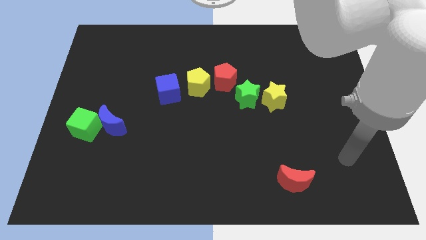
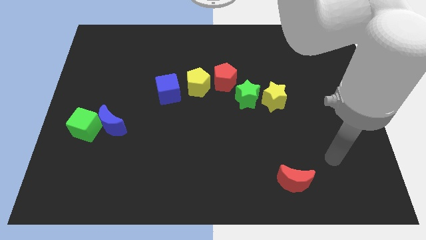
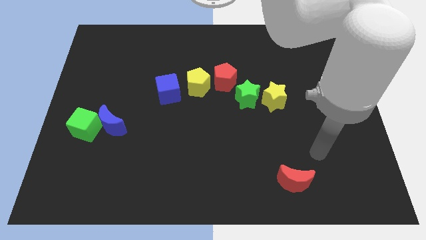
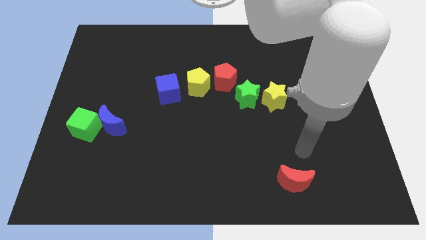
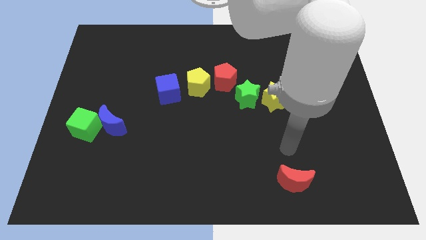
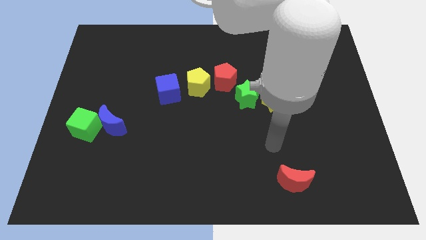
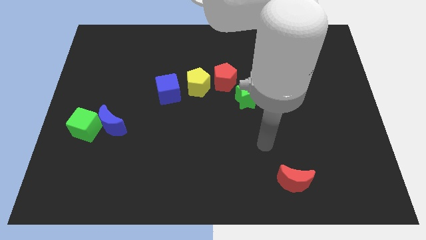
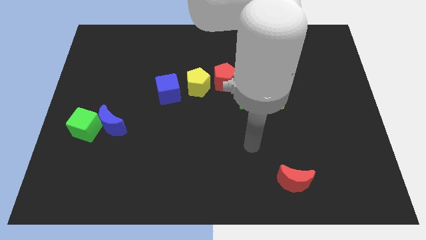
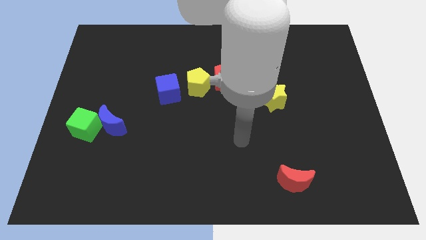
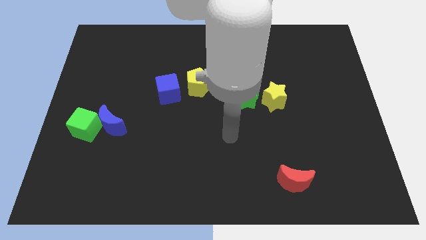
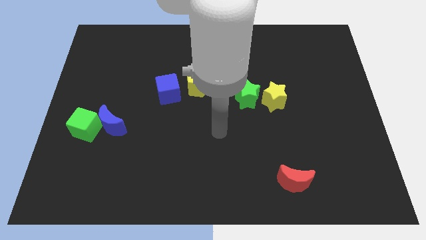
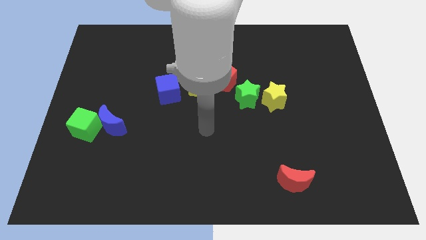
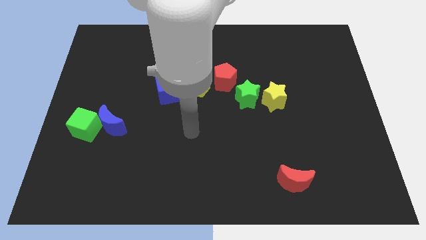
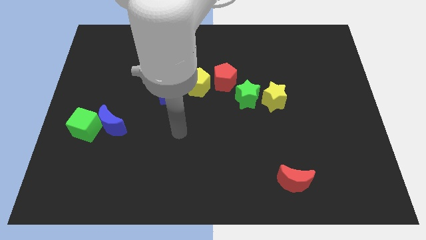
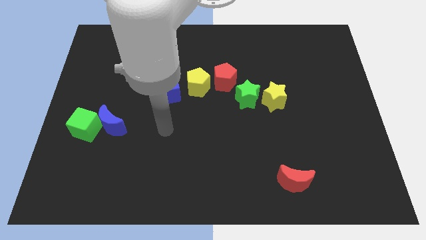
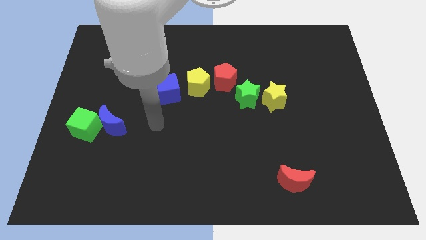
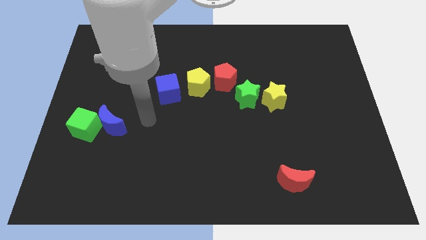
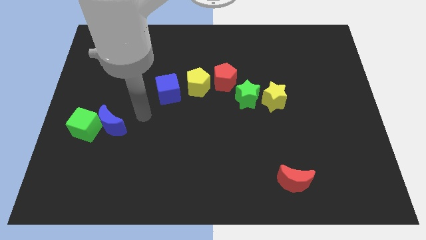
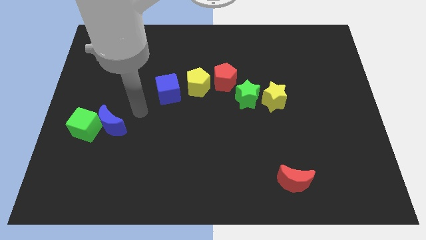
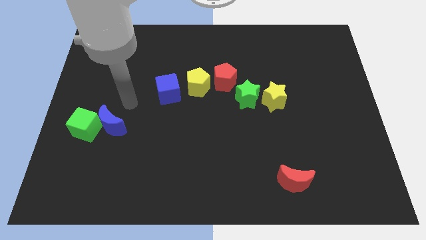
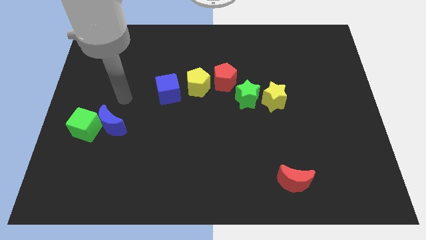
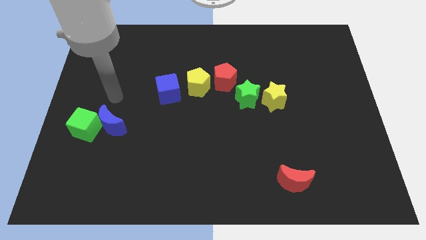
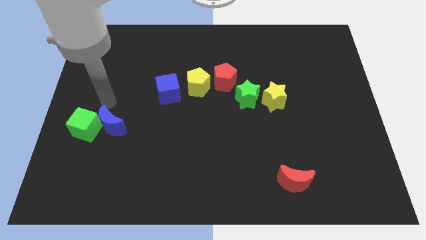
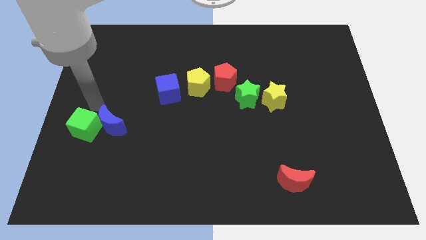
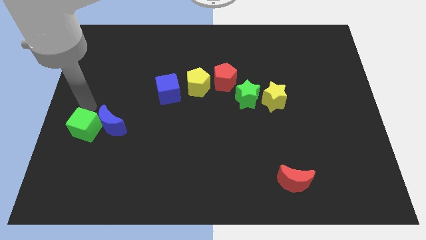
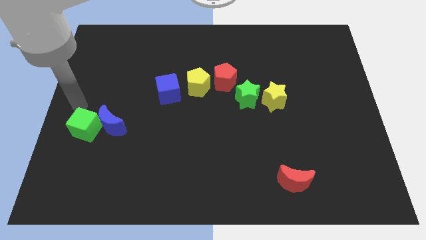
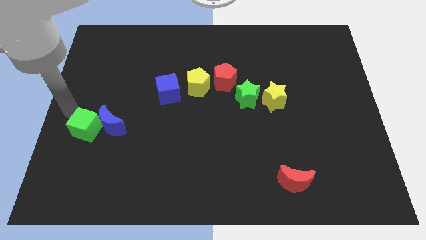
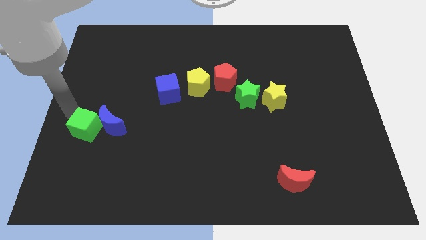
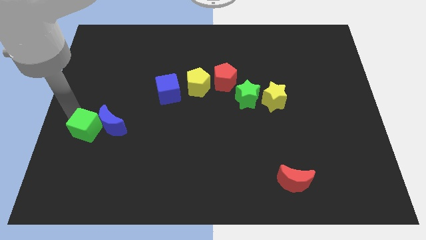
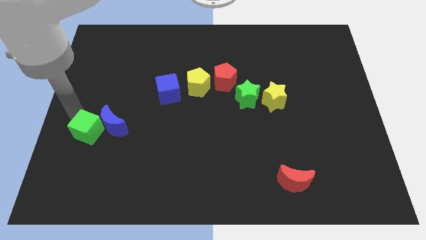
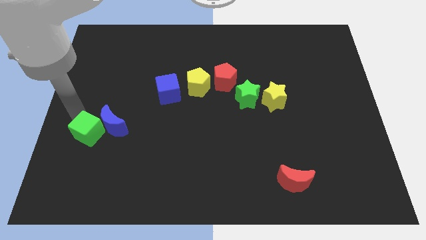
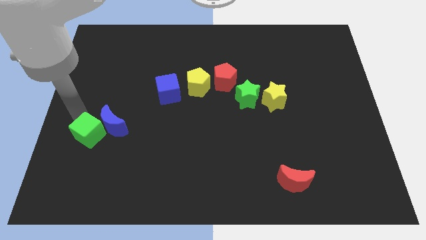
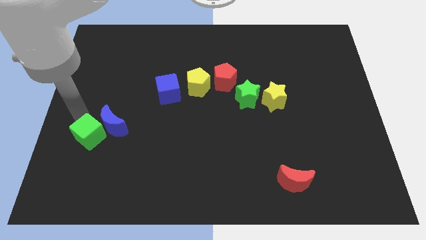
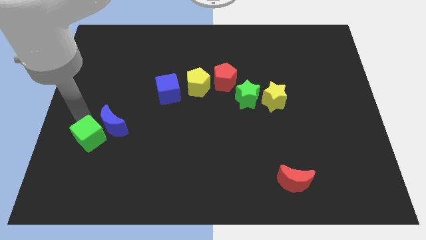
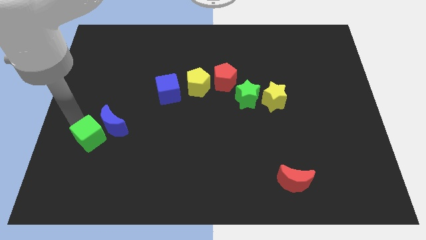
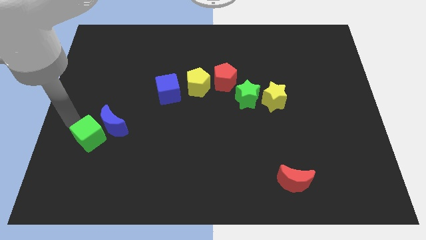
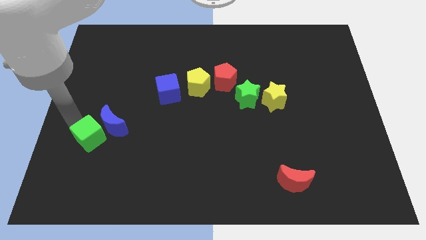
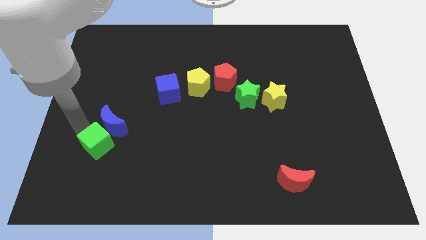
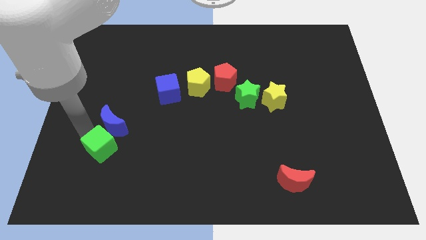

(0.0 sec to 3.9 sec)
slightly slide the green cube down and to the right

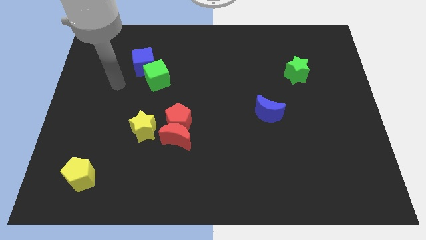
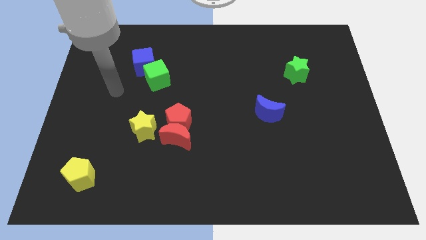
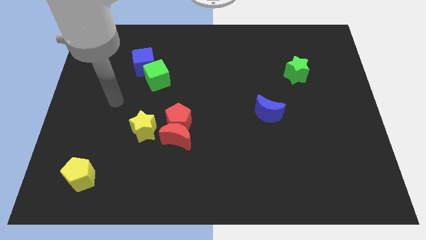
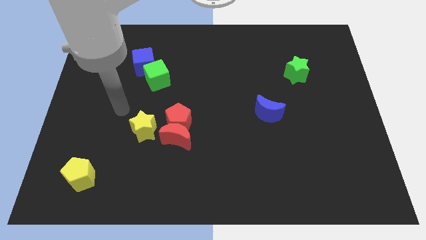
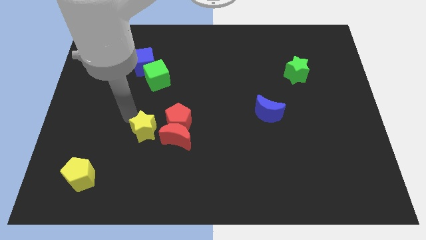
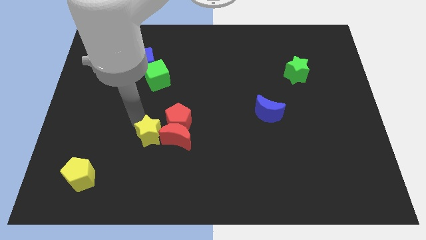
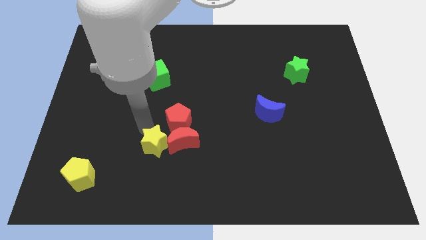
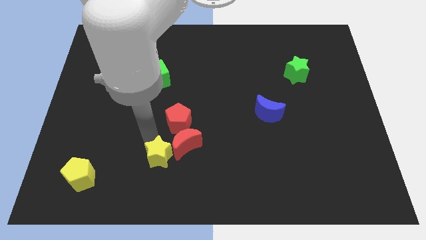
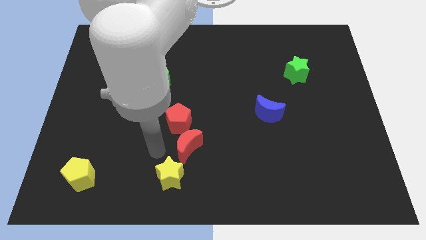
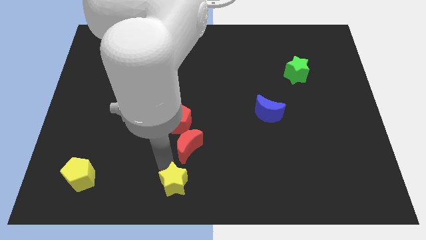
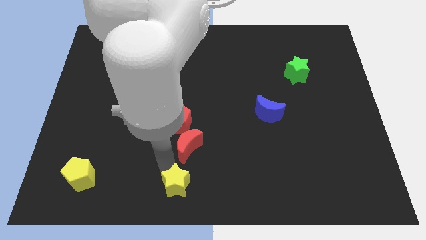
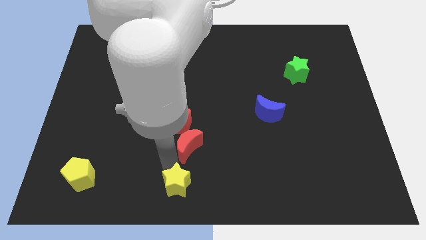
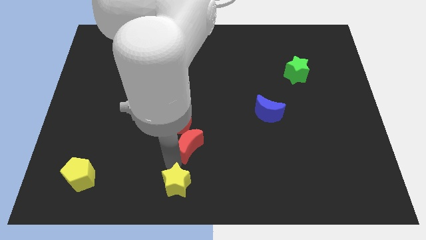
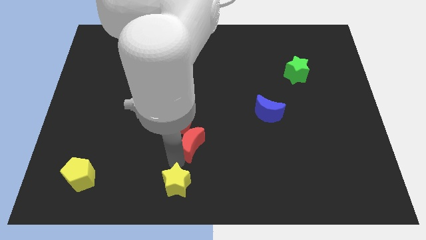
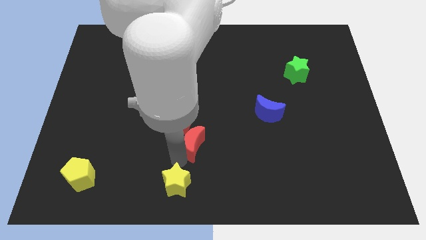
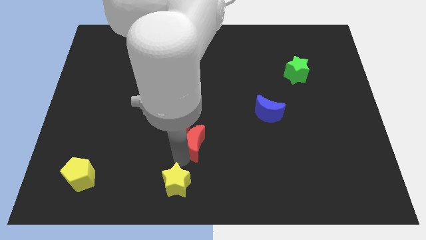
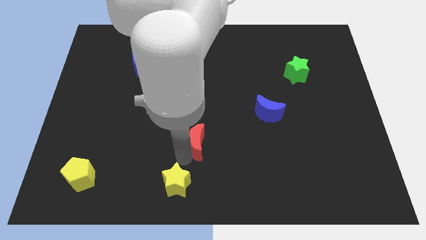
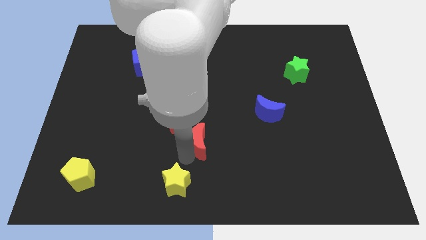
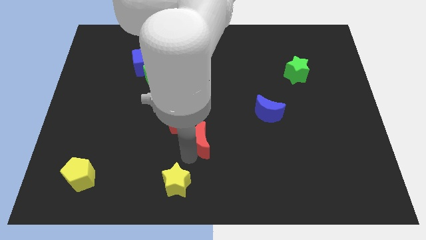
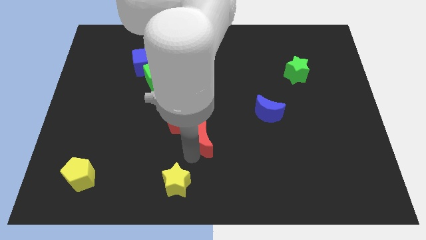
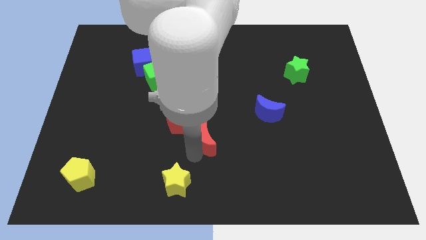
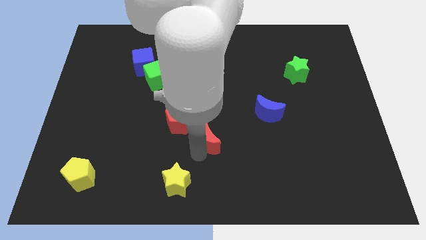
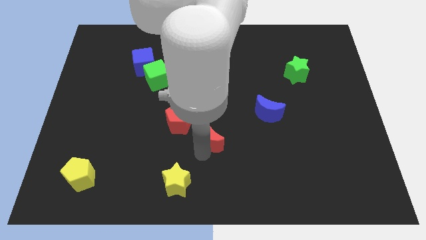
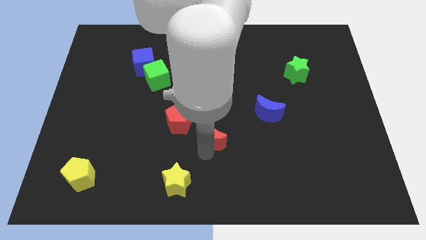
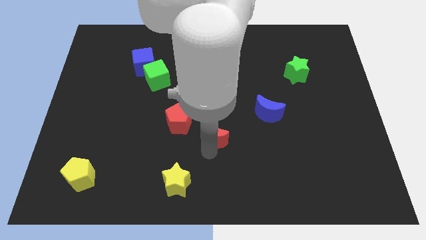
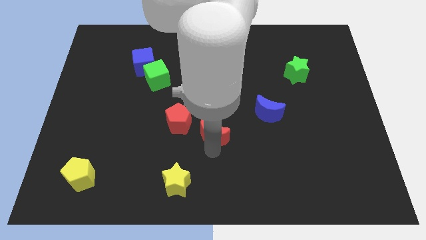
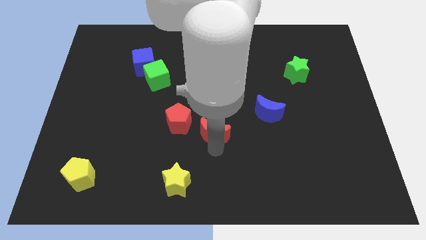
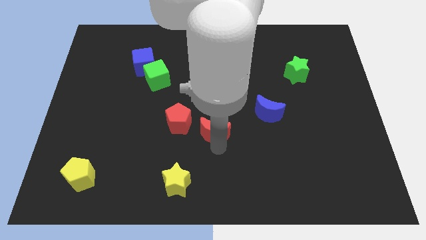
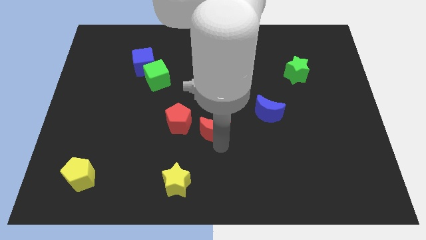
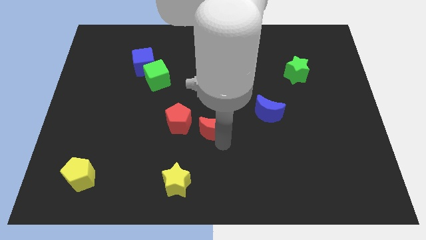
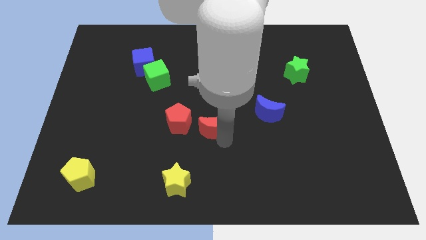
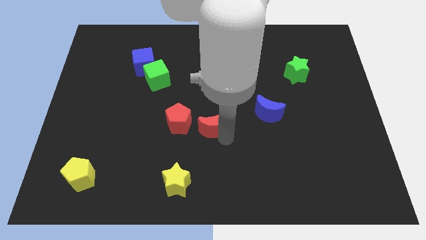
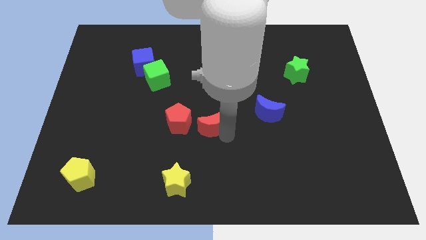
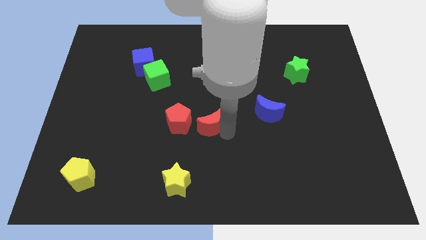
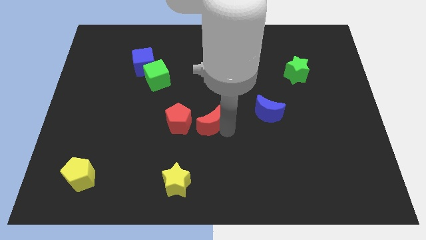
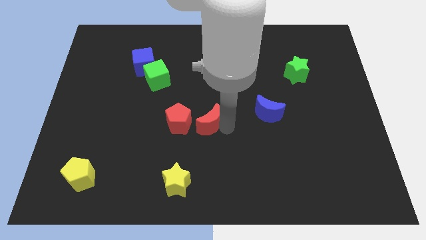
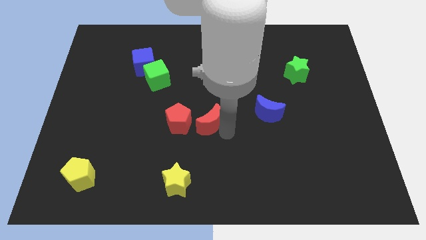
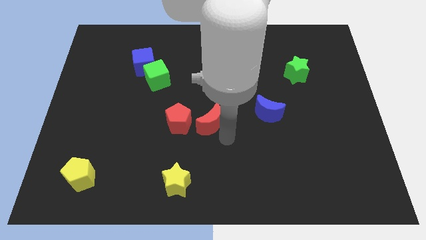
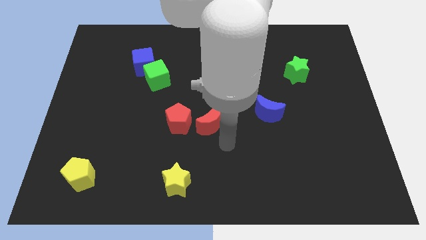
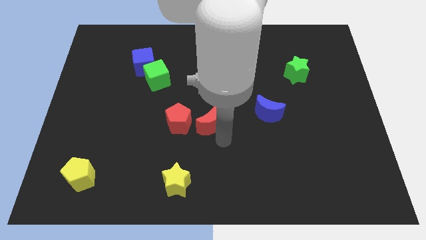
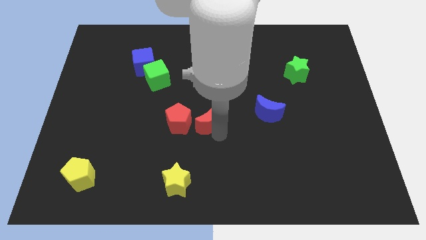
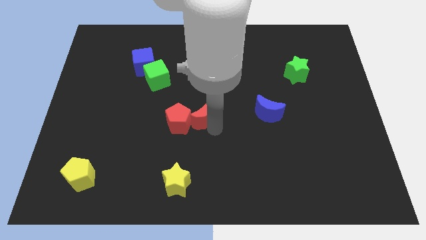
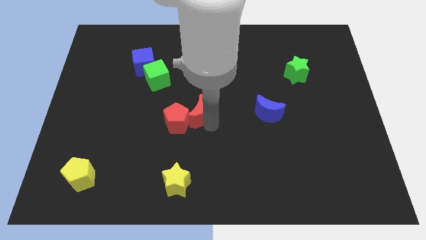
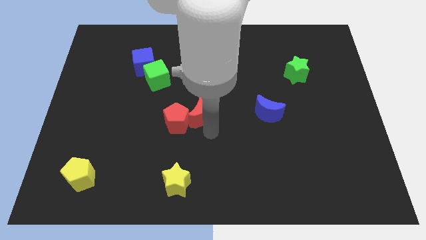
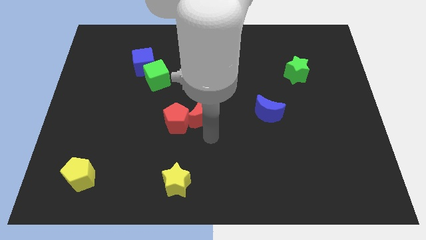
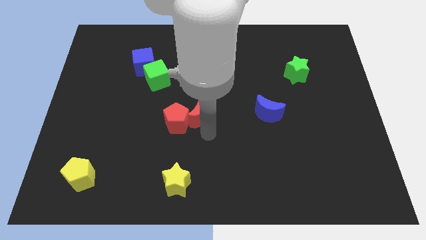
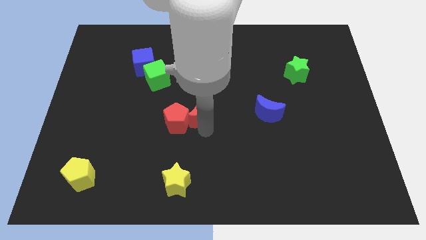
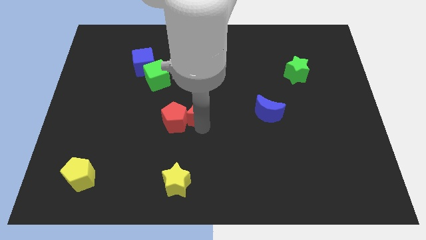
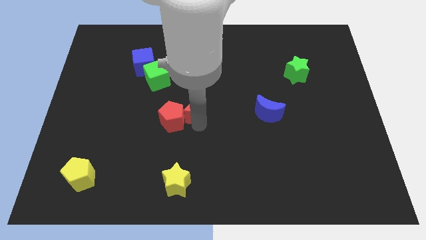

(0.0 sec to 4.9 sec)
slightly move the red moon up
